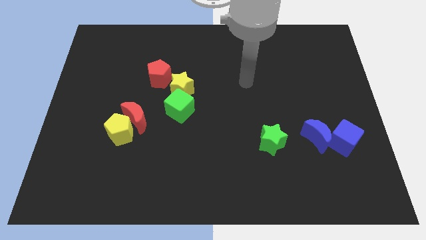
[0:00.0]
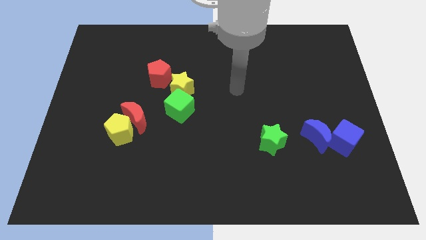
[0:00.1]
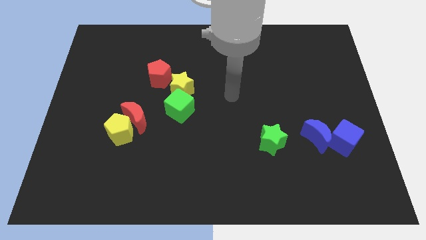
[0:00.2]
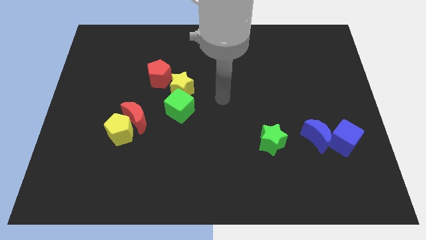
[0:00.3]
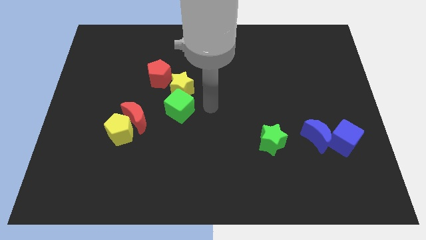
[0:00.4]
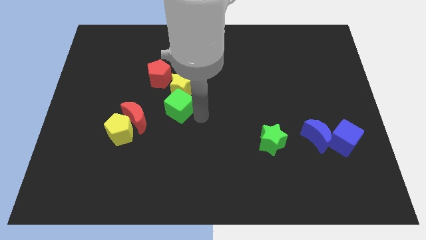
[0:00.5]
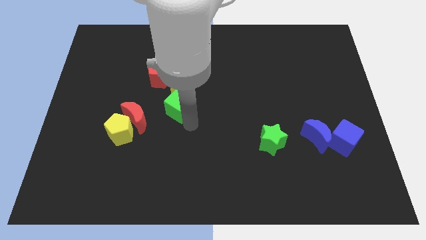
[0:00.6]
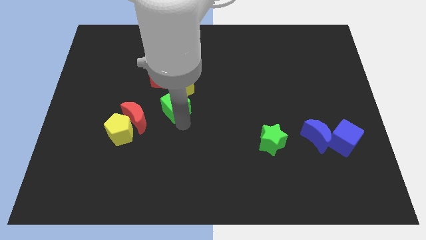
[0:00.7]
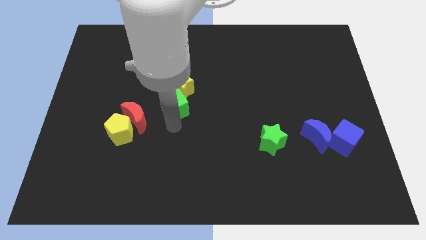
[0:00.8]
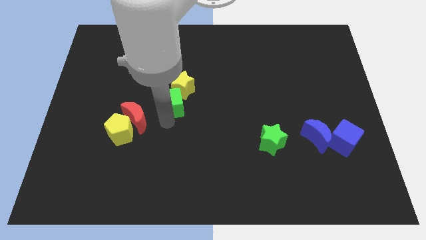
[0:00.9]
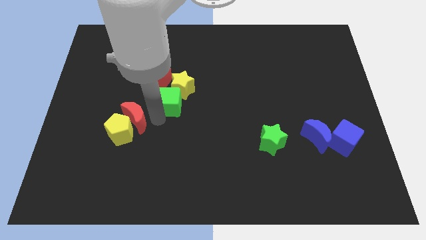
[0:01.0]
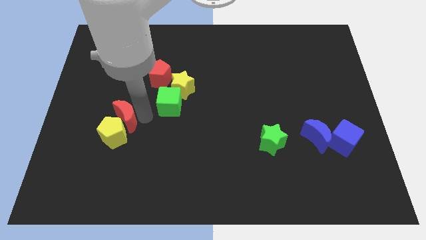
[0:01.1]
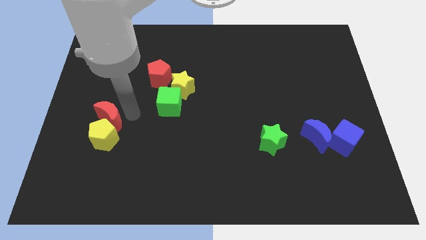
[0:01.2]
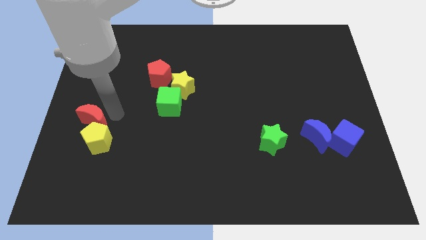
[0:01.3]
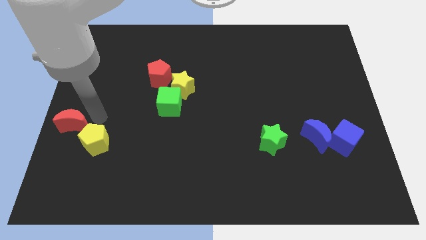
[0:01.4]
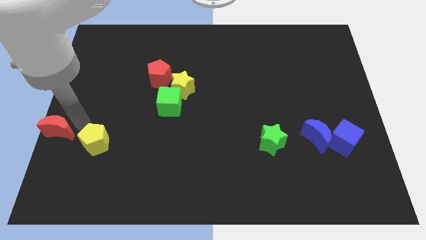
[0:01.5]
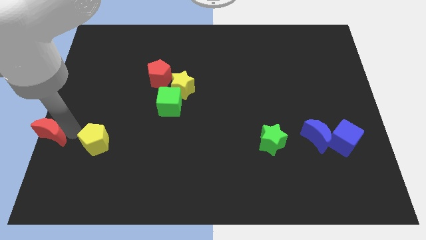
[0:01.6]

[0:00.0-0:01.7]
pull the yellow pentagon apart from the red moon

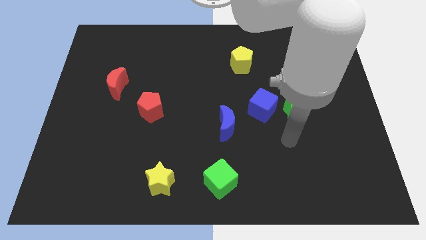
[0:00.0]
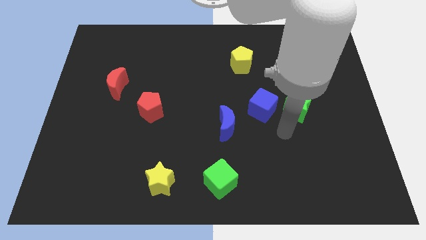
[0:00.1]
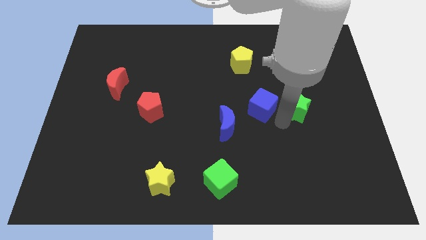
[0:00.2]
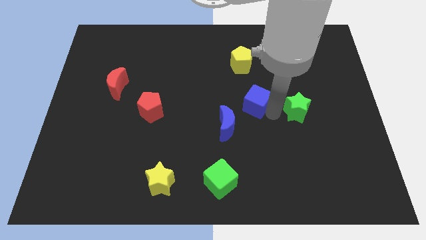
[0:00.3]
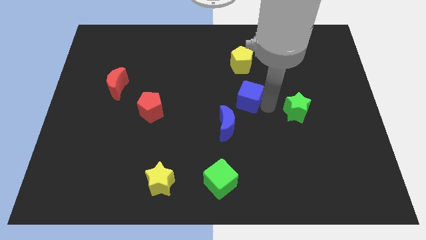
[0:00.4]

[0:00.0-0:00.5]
pull the green star apart from the blue cube

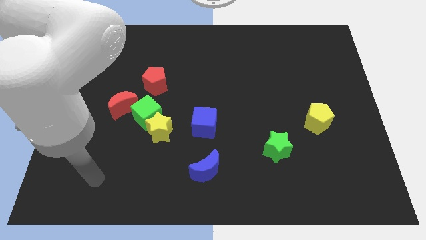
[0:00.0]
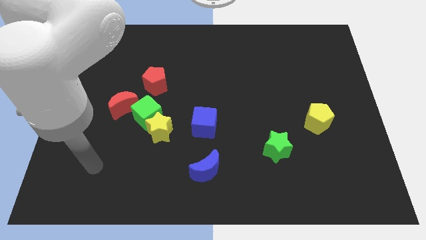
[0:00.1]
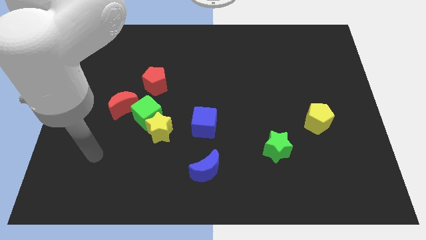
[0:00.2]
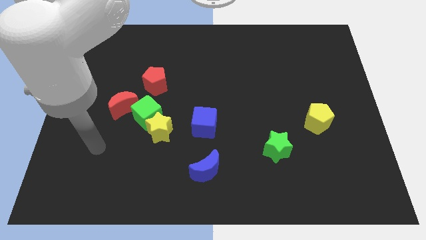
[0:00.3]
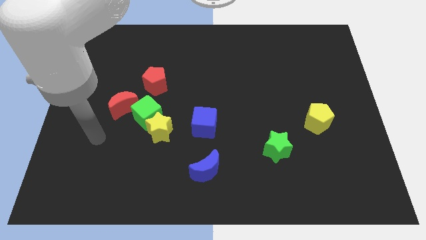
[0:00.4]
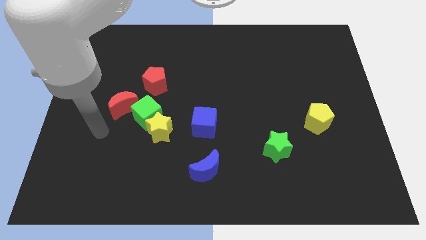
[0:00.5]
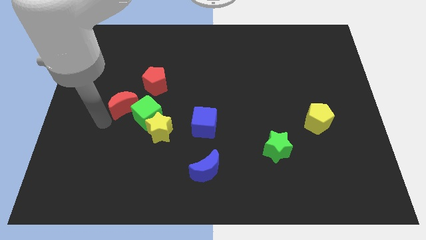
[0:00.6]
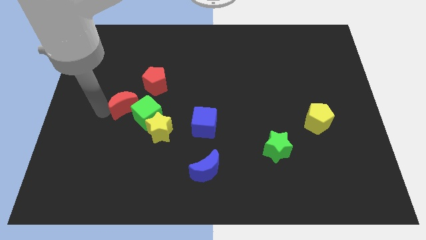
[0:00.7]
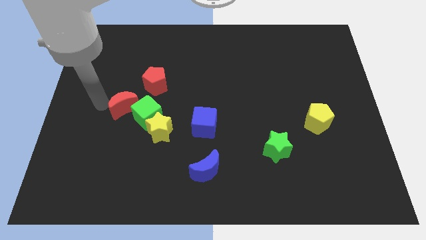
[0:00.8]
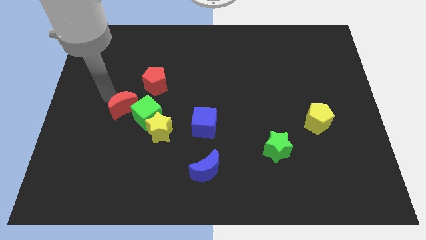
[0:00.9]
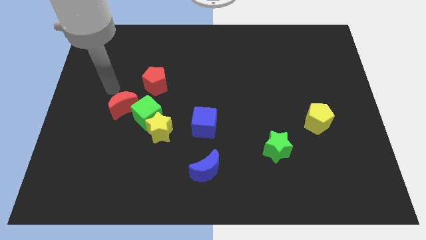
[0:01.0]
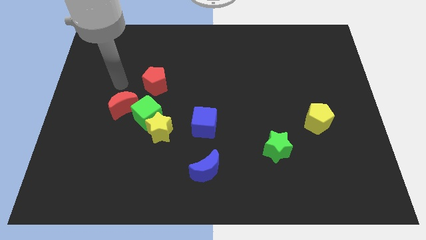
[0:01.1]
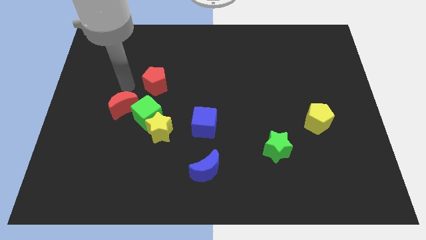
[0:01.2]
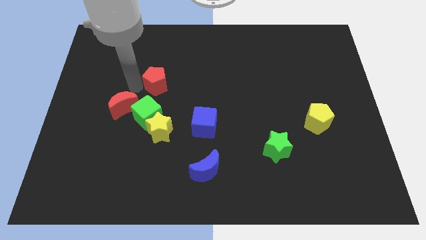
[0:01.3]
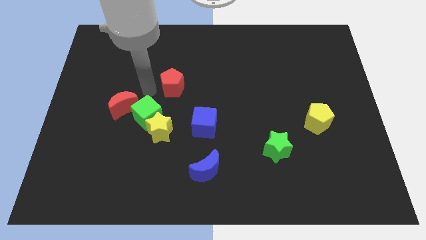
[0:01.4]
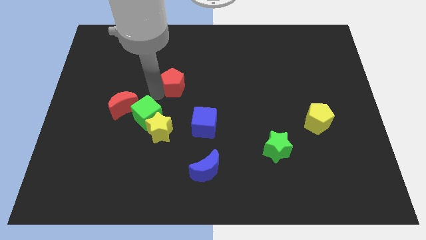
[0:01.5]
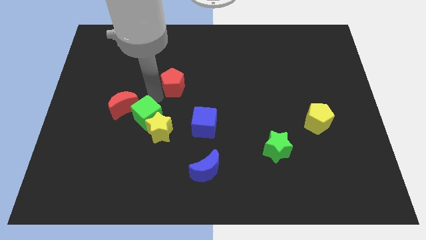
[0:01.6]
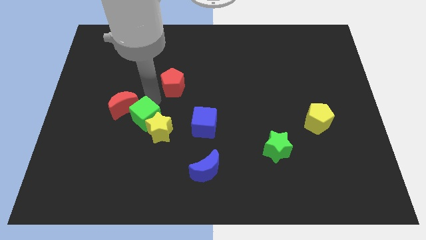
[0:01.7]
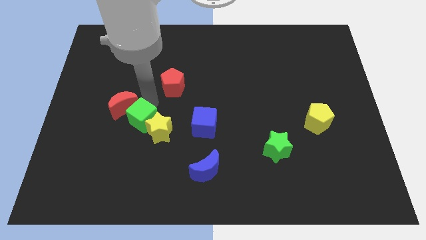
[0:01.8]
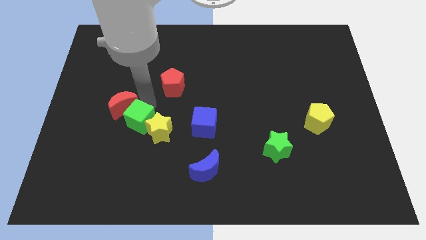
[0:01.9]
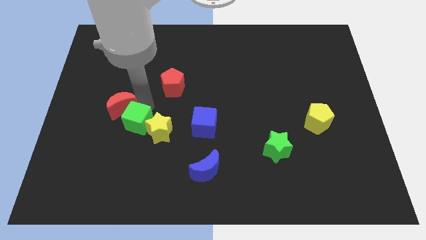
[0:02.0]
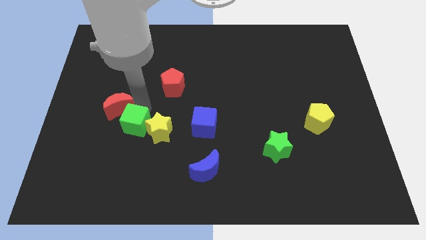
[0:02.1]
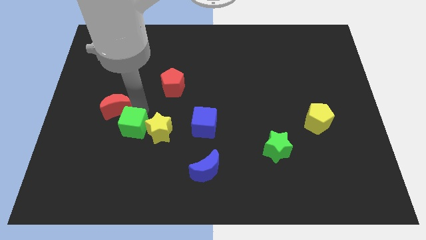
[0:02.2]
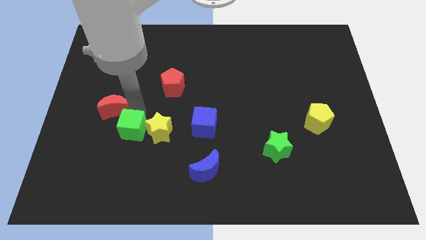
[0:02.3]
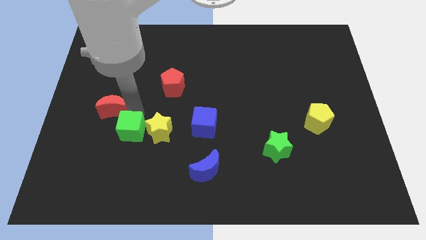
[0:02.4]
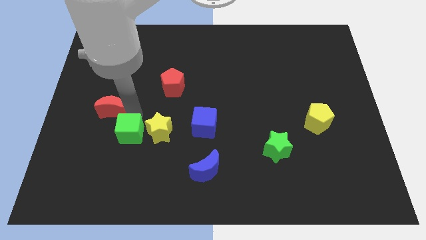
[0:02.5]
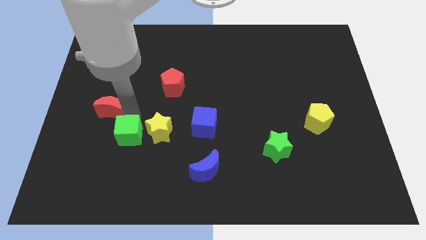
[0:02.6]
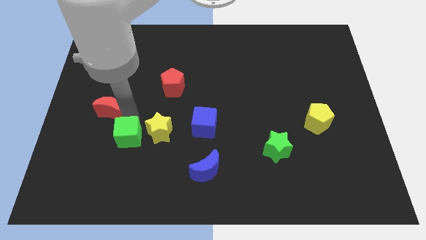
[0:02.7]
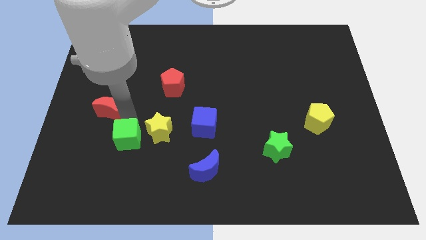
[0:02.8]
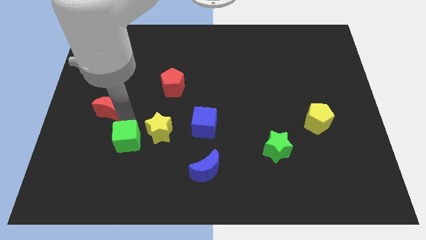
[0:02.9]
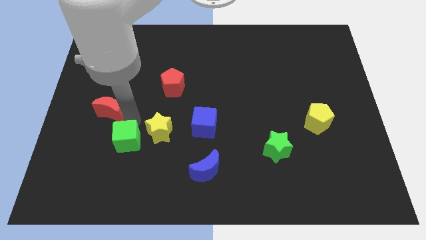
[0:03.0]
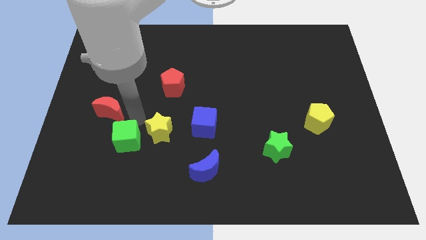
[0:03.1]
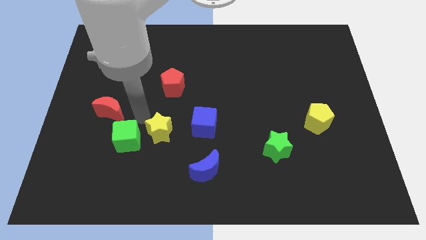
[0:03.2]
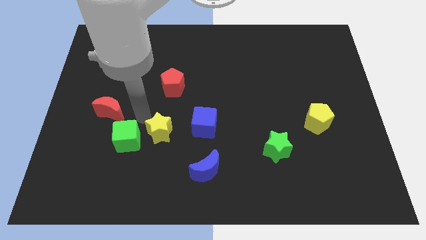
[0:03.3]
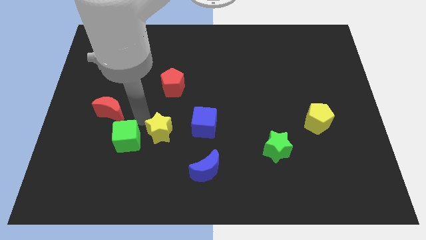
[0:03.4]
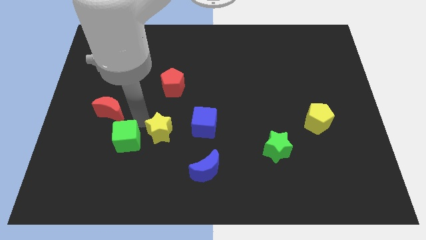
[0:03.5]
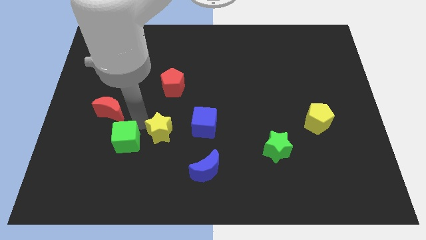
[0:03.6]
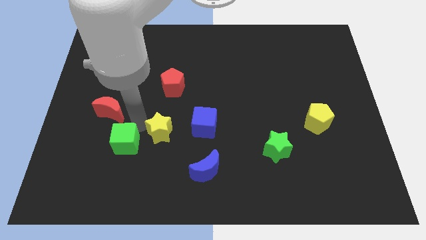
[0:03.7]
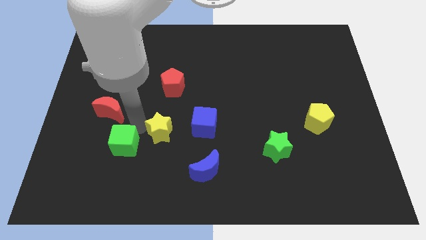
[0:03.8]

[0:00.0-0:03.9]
pull the green cube apart from the group of blocks

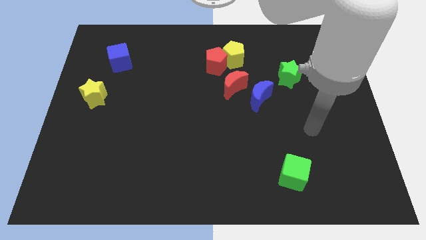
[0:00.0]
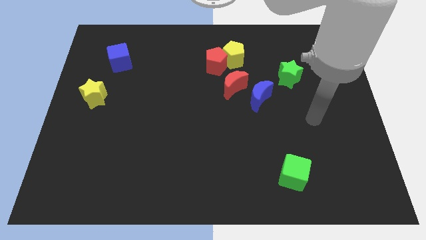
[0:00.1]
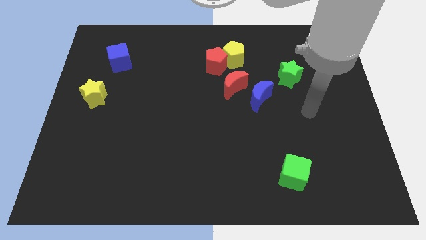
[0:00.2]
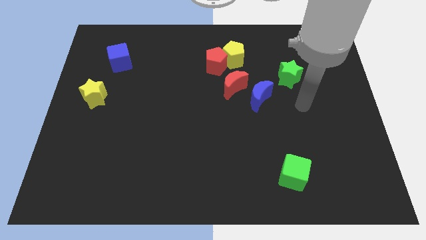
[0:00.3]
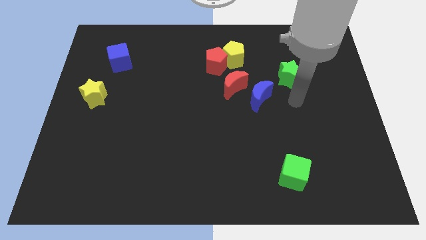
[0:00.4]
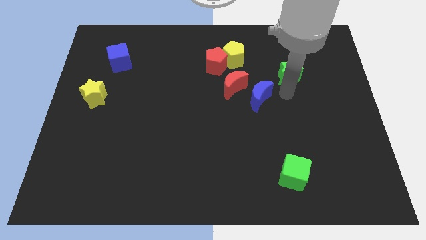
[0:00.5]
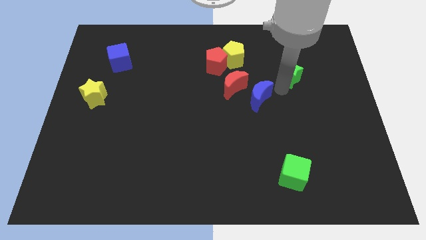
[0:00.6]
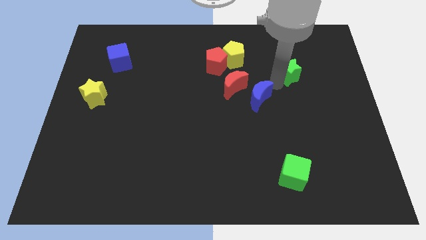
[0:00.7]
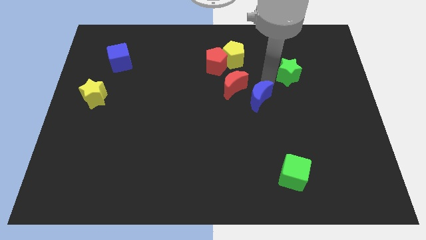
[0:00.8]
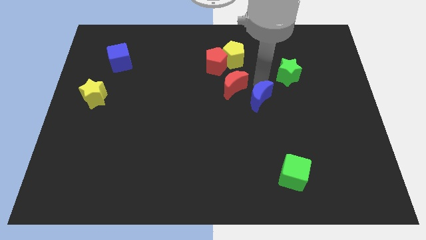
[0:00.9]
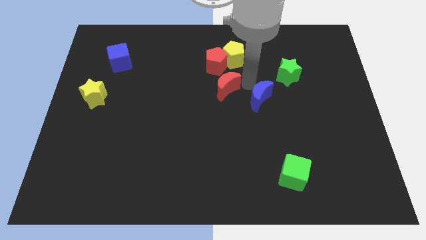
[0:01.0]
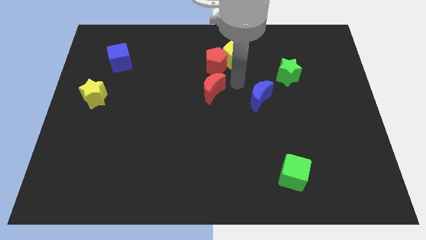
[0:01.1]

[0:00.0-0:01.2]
move the blue moon away from the red moon

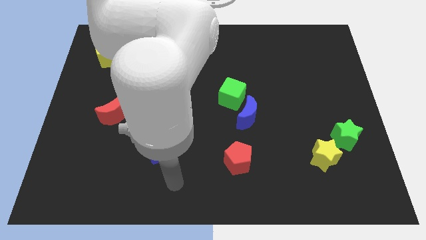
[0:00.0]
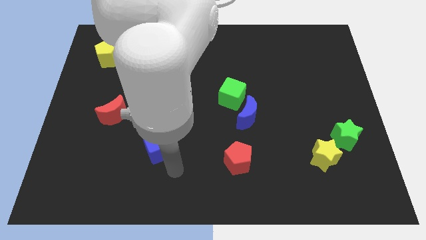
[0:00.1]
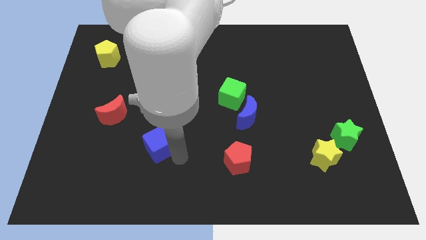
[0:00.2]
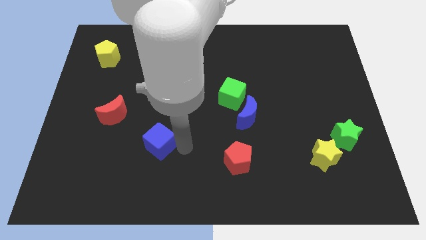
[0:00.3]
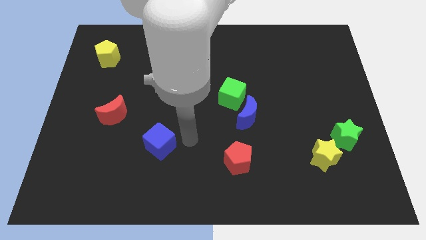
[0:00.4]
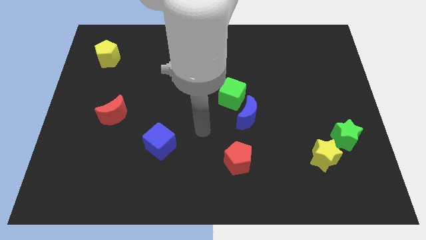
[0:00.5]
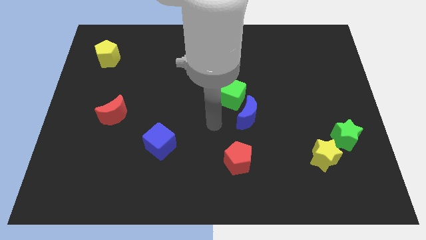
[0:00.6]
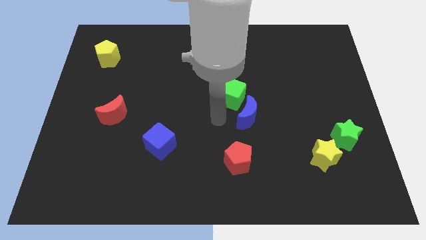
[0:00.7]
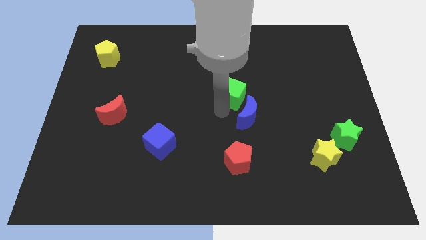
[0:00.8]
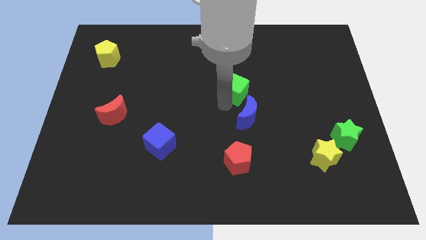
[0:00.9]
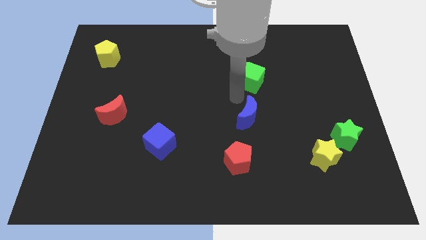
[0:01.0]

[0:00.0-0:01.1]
separate the blue moon from the green cube

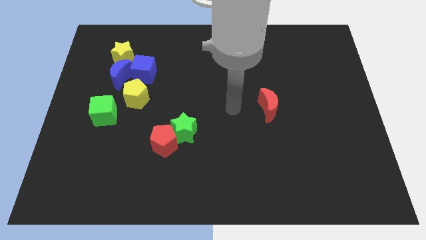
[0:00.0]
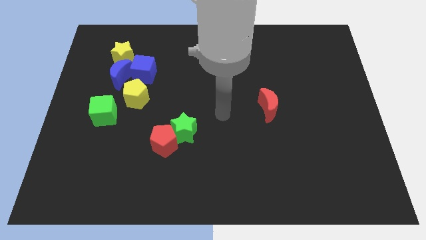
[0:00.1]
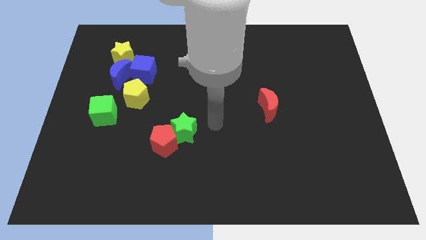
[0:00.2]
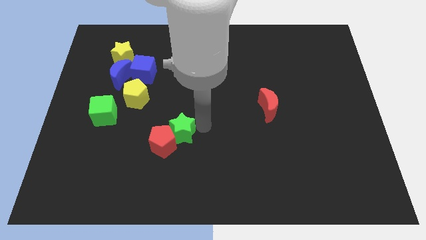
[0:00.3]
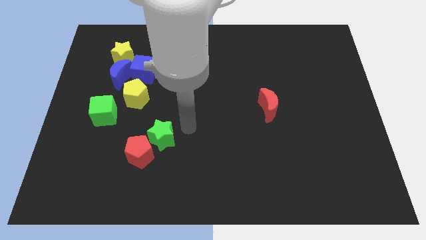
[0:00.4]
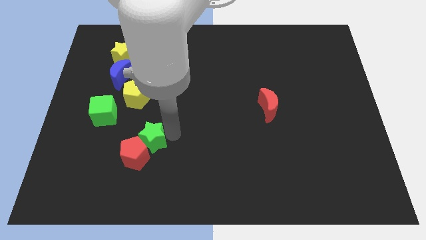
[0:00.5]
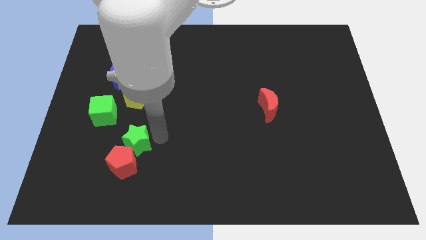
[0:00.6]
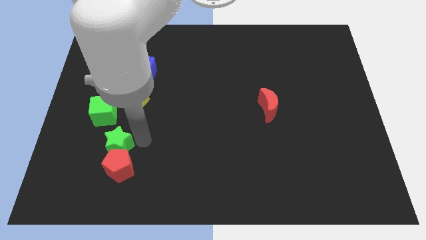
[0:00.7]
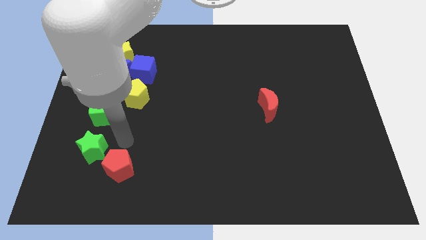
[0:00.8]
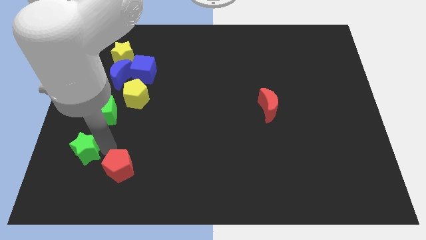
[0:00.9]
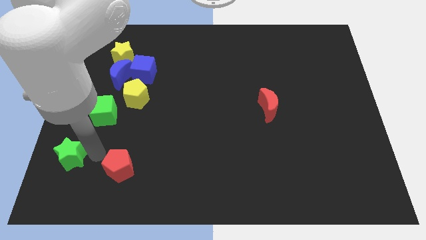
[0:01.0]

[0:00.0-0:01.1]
move the red pentagon away from the green star
